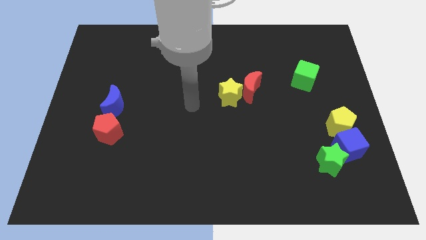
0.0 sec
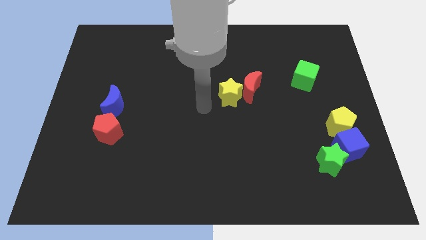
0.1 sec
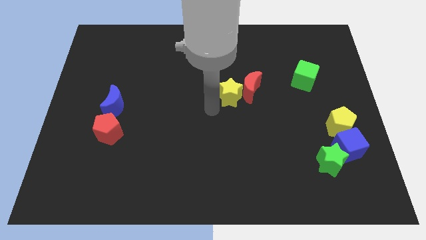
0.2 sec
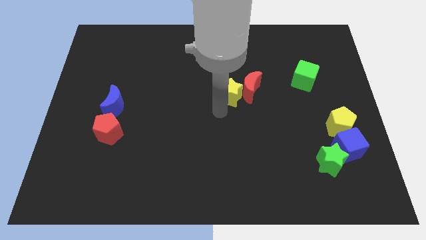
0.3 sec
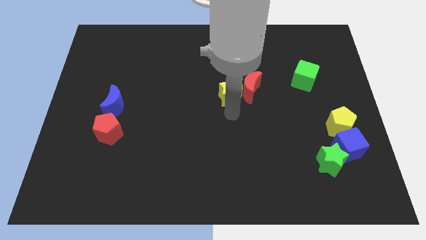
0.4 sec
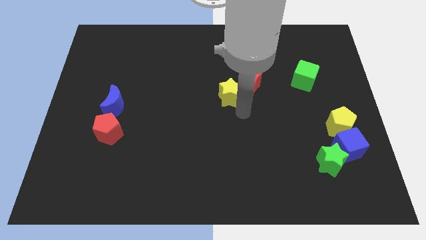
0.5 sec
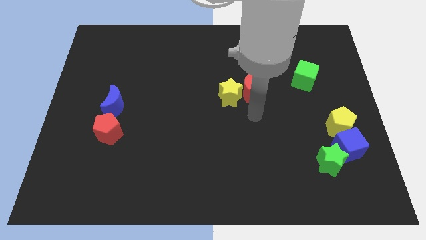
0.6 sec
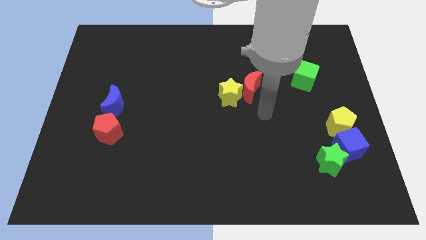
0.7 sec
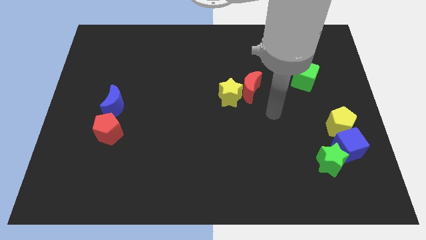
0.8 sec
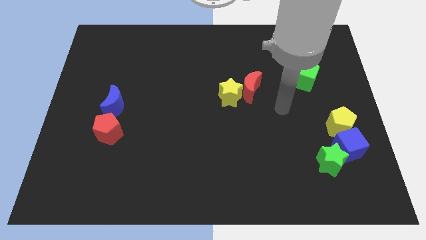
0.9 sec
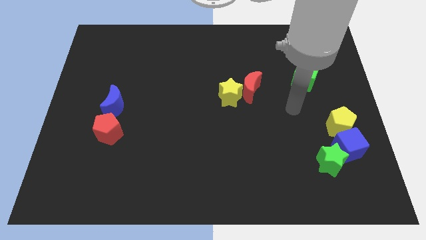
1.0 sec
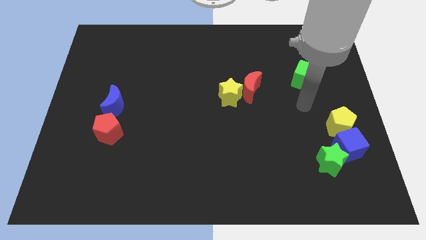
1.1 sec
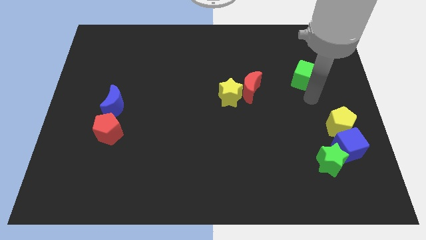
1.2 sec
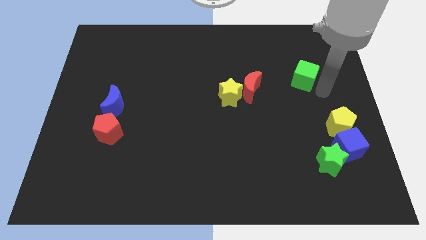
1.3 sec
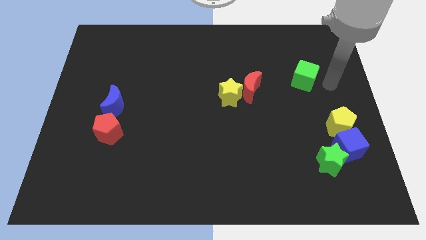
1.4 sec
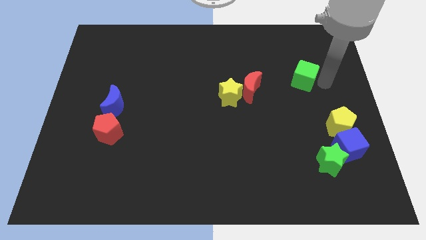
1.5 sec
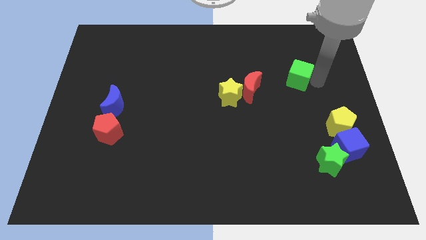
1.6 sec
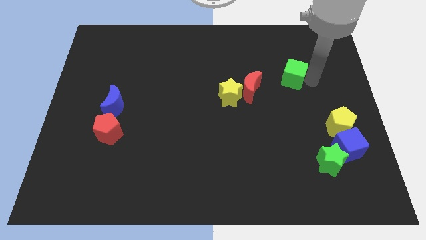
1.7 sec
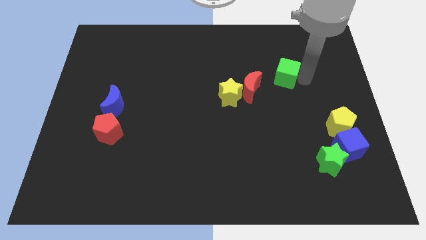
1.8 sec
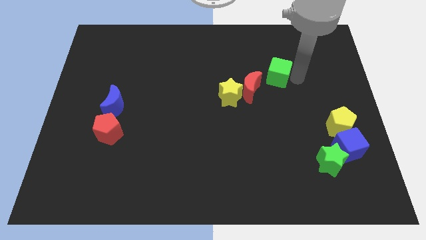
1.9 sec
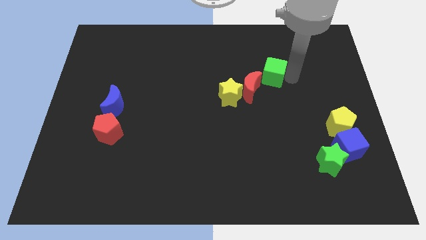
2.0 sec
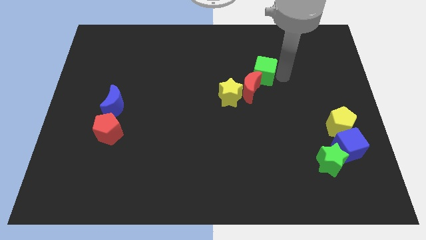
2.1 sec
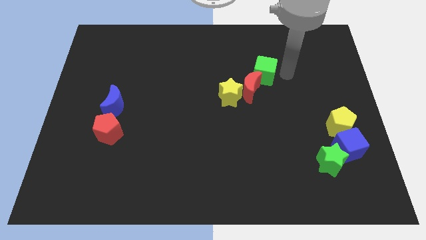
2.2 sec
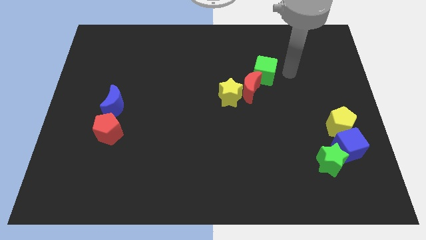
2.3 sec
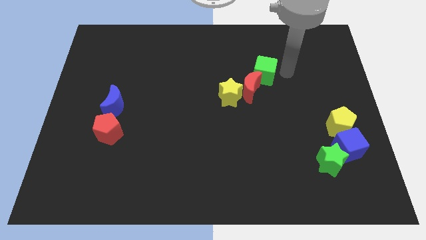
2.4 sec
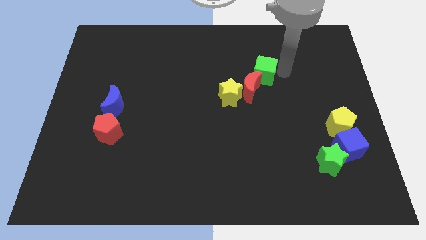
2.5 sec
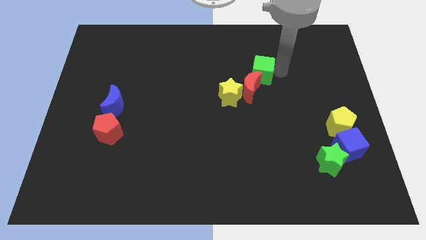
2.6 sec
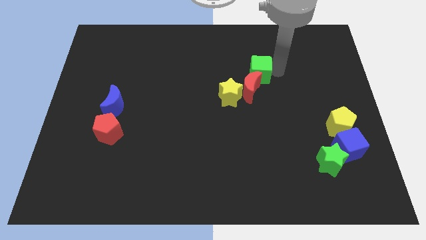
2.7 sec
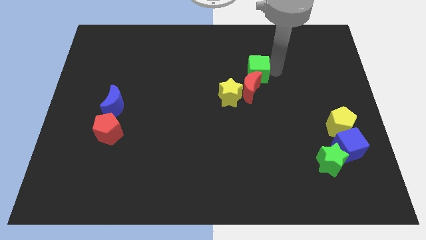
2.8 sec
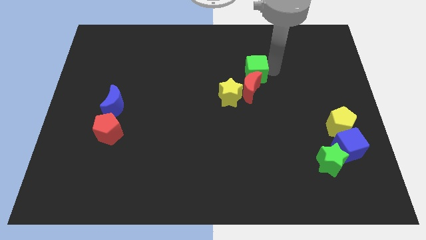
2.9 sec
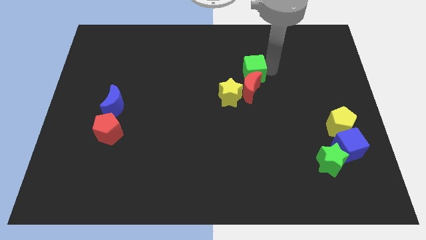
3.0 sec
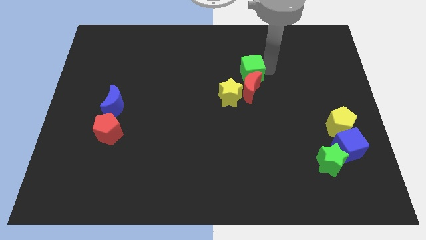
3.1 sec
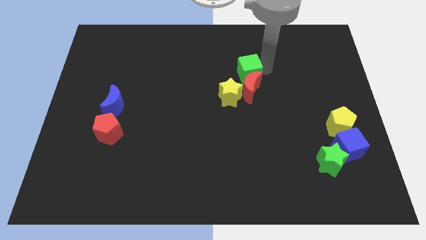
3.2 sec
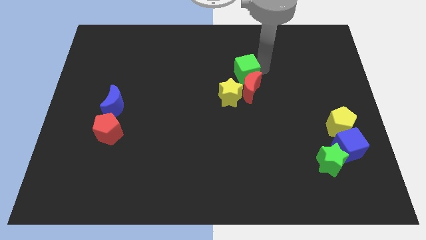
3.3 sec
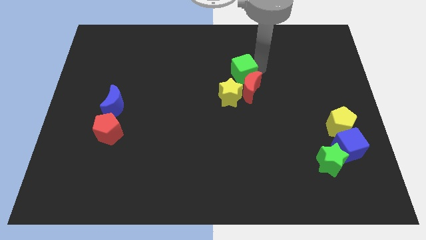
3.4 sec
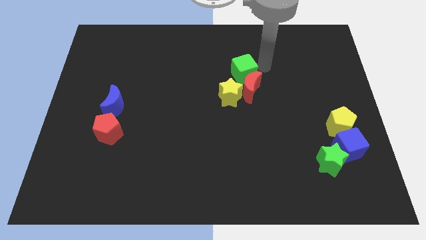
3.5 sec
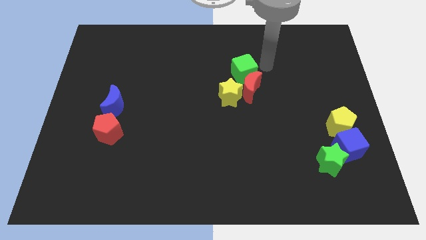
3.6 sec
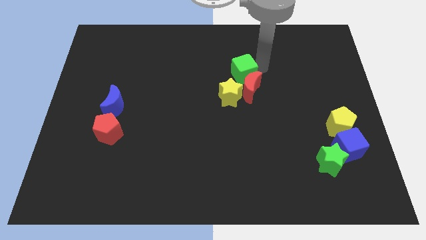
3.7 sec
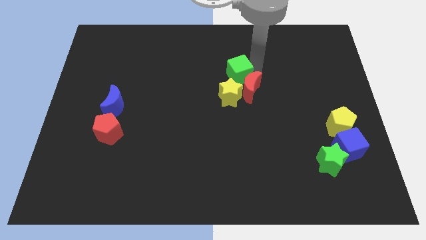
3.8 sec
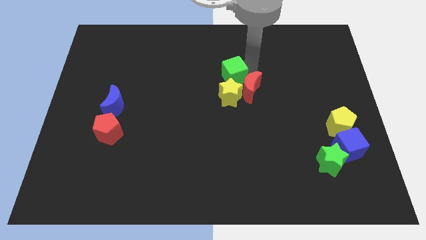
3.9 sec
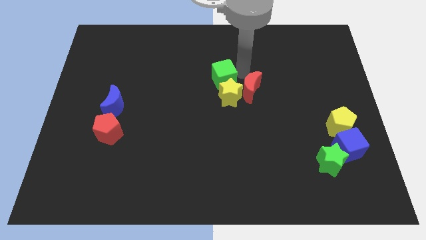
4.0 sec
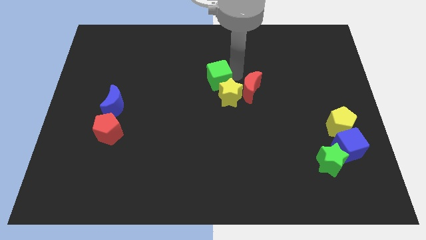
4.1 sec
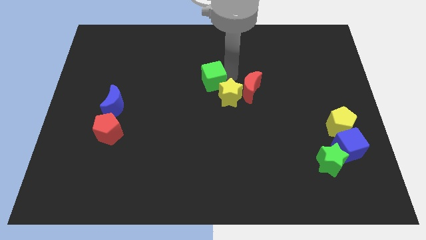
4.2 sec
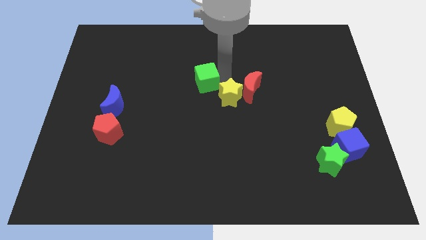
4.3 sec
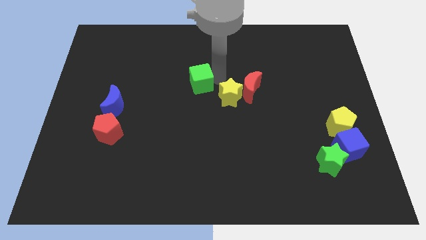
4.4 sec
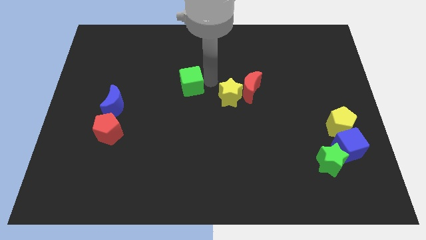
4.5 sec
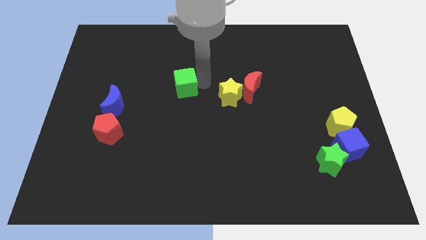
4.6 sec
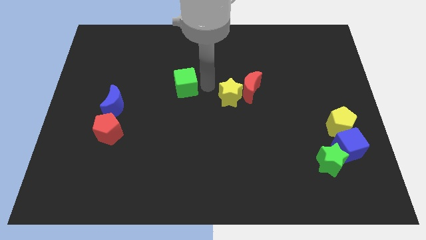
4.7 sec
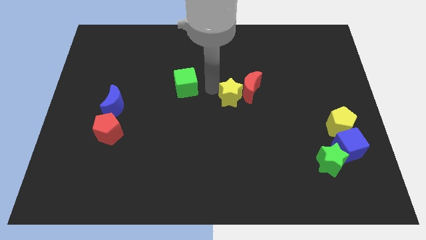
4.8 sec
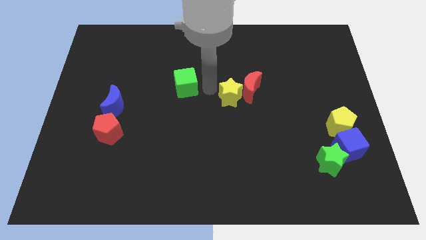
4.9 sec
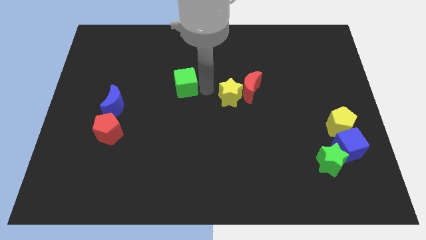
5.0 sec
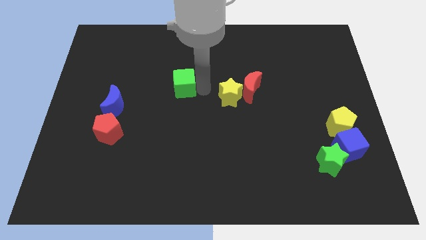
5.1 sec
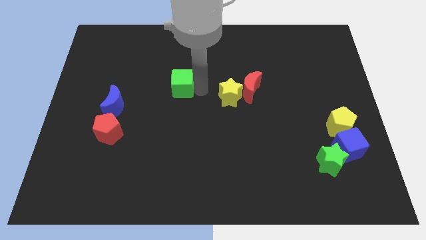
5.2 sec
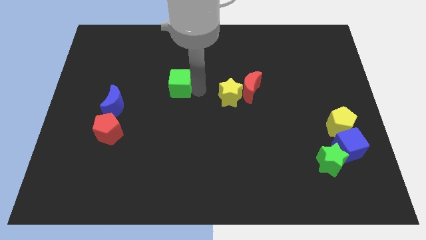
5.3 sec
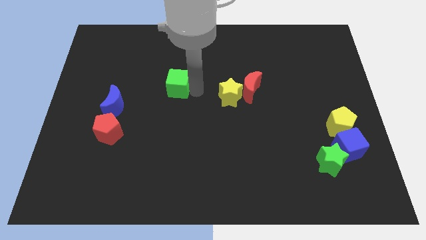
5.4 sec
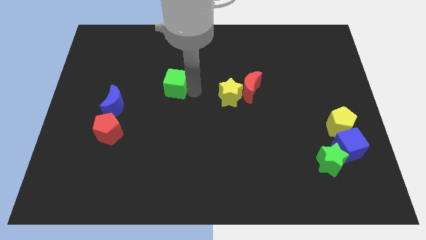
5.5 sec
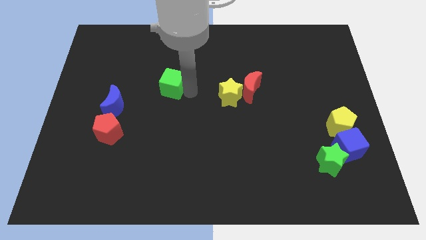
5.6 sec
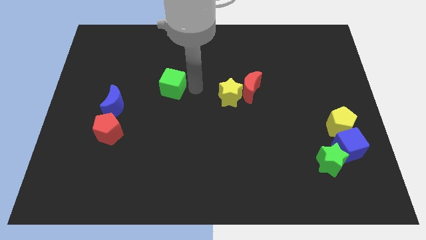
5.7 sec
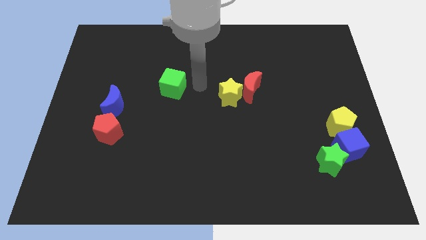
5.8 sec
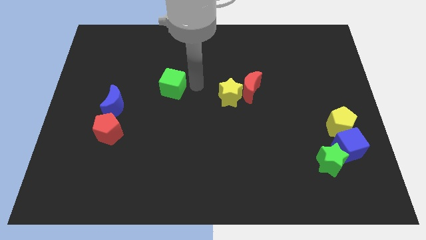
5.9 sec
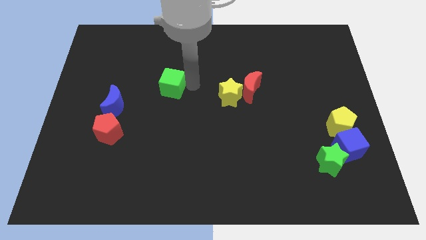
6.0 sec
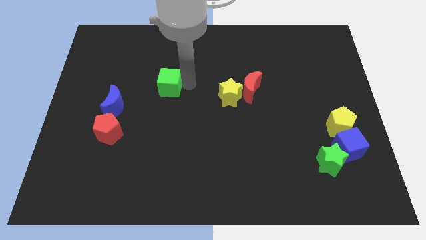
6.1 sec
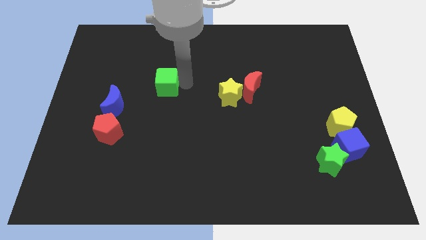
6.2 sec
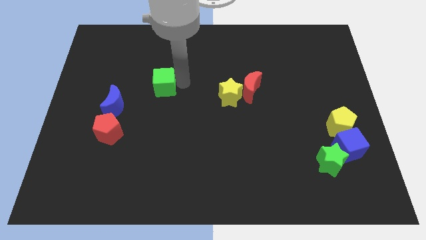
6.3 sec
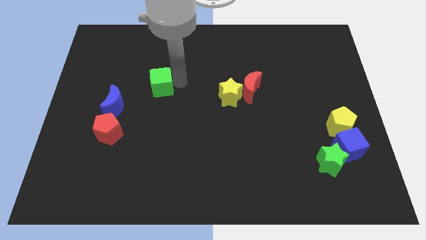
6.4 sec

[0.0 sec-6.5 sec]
put the green cube diagonally up and to the right of the blue moon
